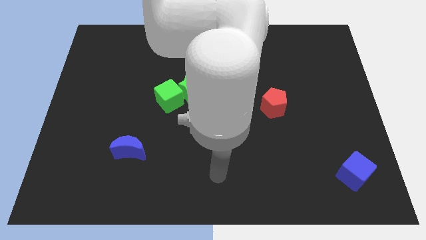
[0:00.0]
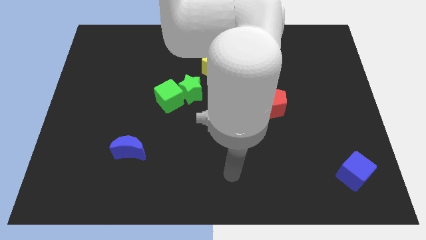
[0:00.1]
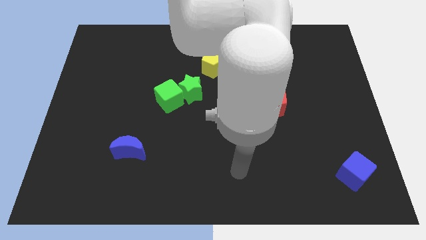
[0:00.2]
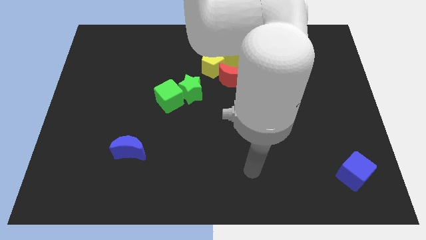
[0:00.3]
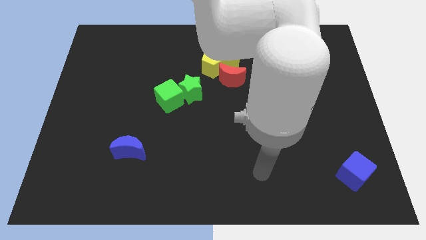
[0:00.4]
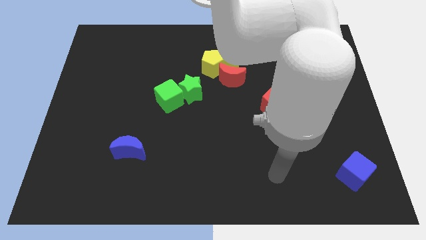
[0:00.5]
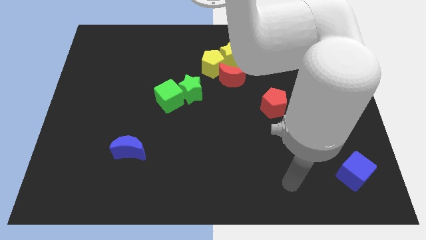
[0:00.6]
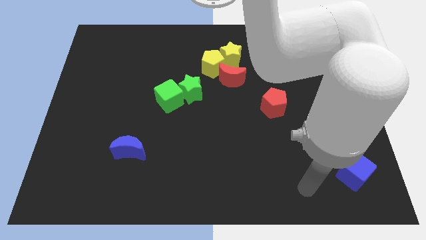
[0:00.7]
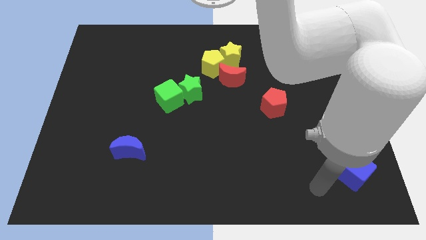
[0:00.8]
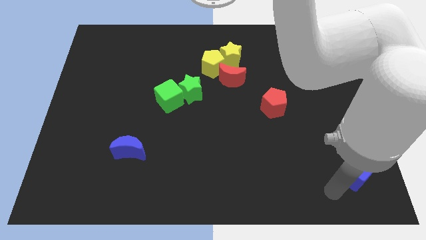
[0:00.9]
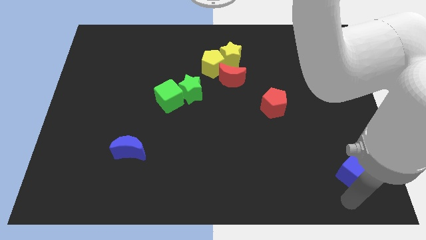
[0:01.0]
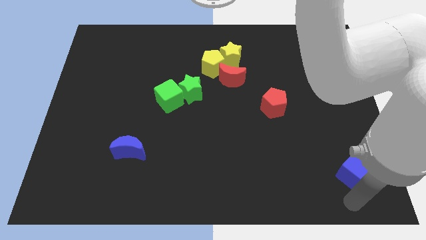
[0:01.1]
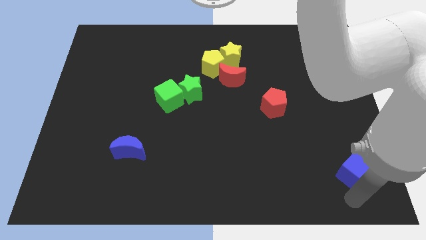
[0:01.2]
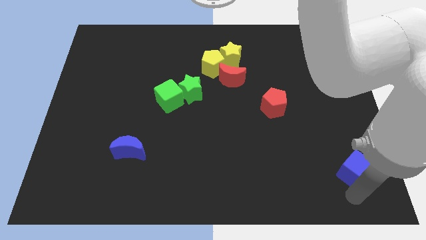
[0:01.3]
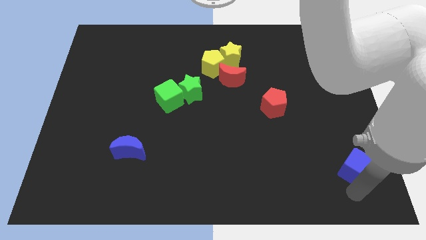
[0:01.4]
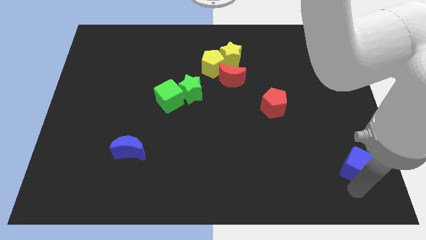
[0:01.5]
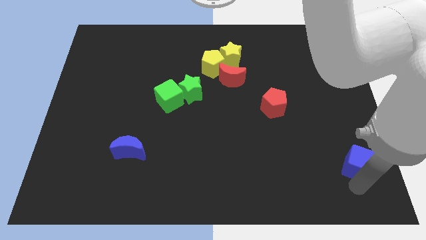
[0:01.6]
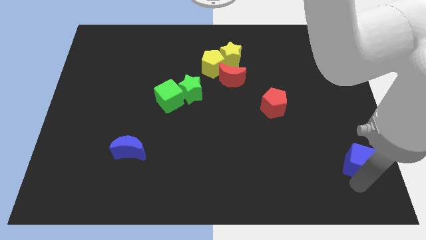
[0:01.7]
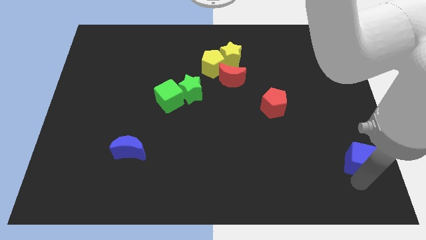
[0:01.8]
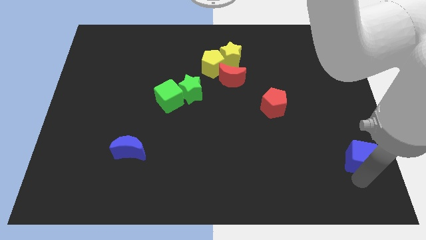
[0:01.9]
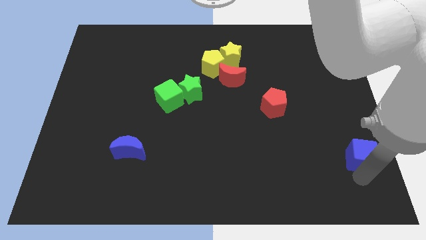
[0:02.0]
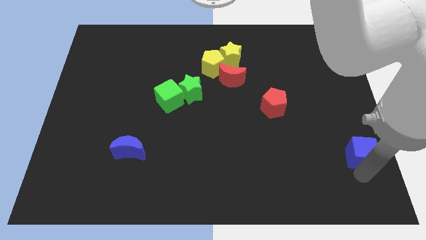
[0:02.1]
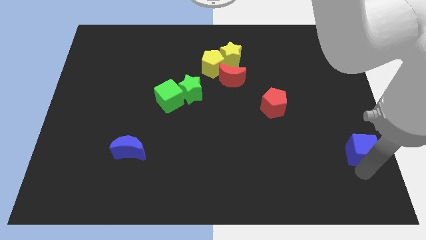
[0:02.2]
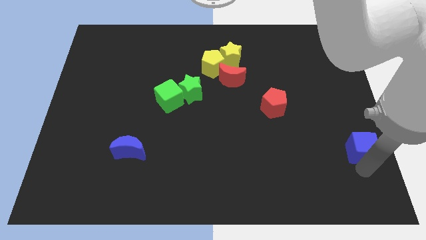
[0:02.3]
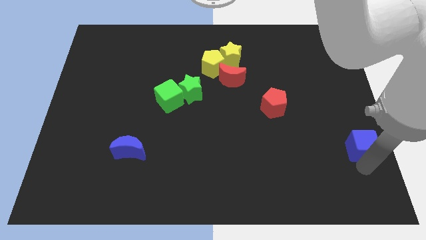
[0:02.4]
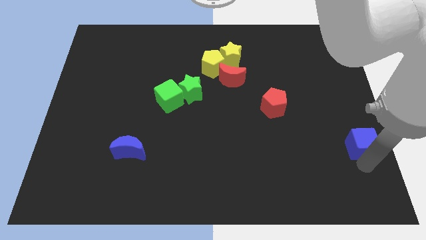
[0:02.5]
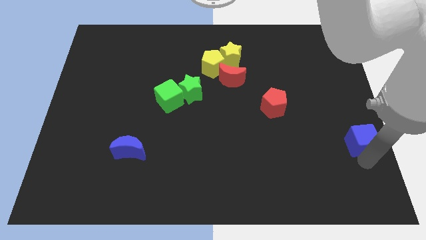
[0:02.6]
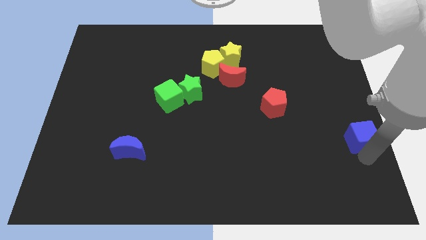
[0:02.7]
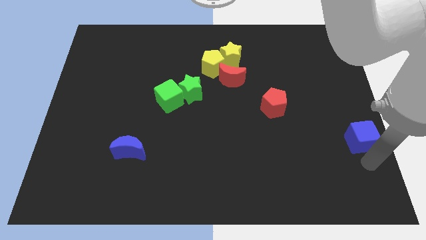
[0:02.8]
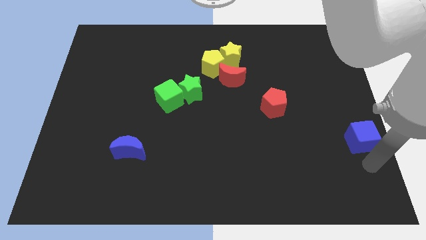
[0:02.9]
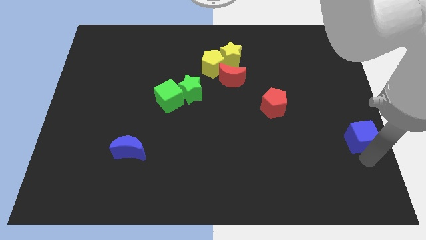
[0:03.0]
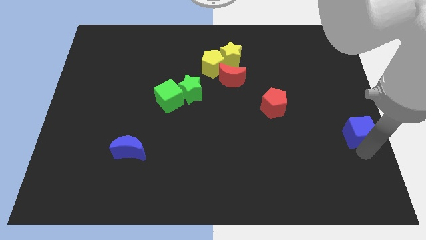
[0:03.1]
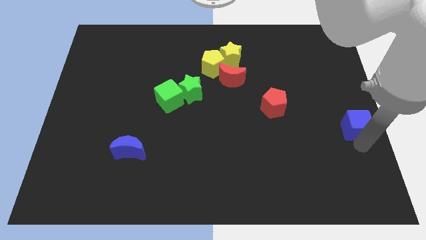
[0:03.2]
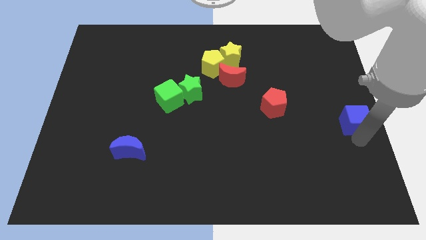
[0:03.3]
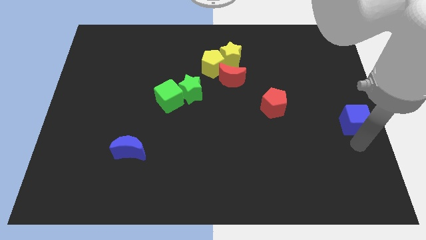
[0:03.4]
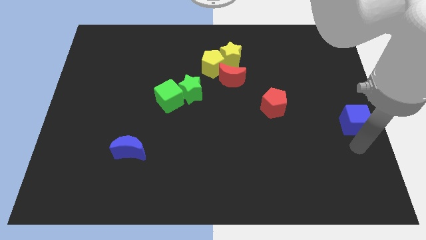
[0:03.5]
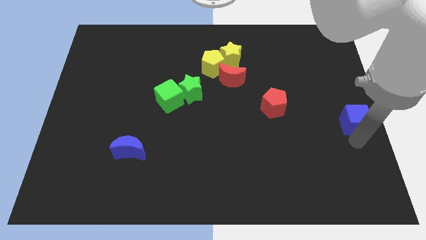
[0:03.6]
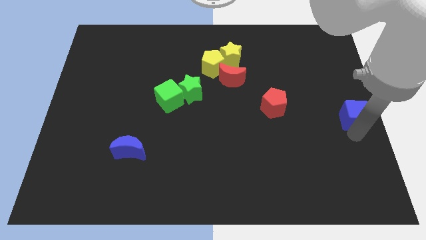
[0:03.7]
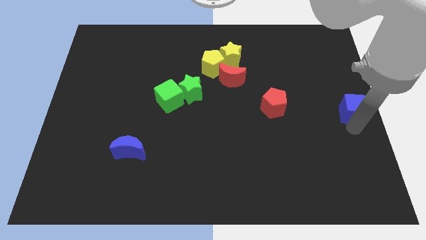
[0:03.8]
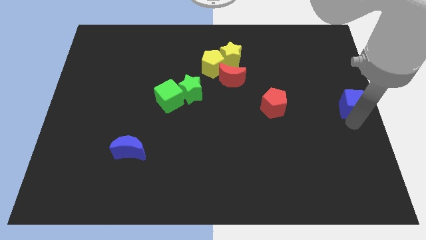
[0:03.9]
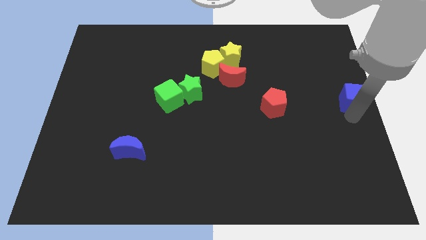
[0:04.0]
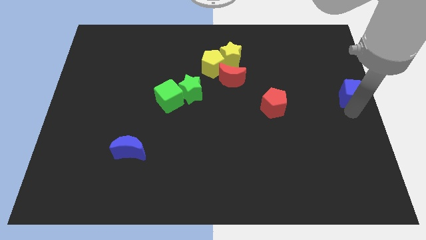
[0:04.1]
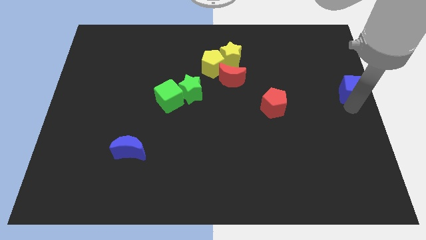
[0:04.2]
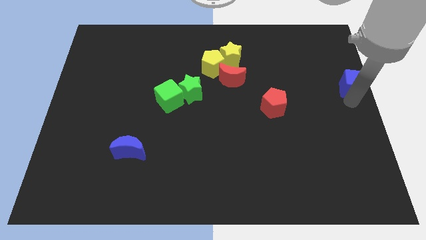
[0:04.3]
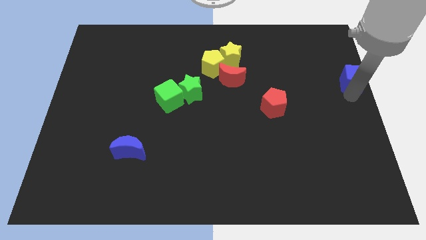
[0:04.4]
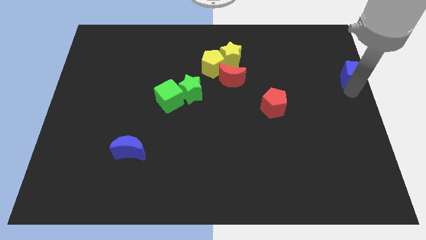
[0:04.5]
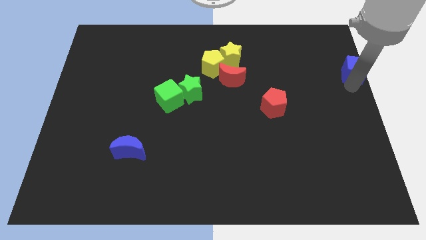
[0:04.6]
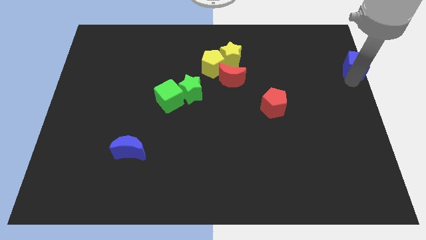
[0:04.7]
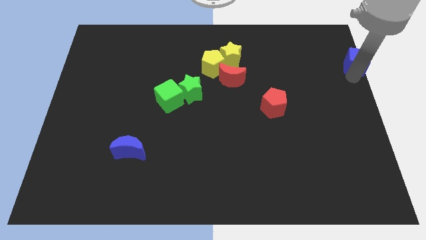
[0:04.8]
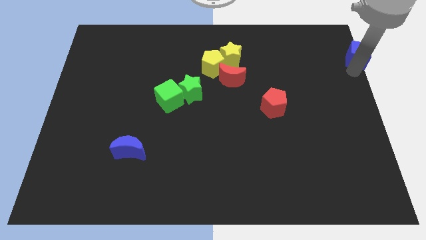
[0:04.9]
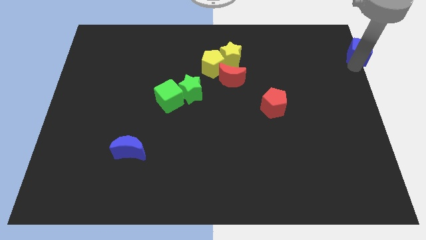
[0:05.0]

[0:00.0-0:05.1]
move the blue cube to the top right corner
